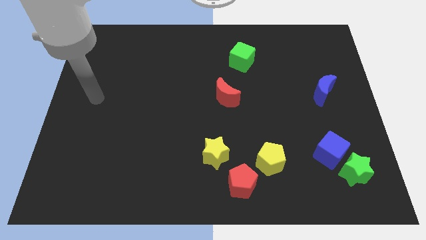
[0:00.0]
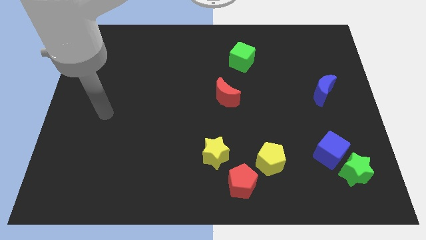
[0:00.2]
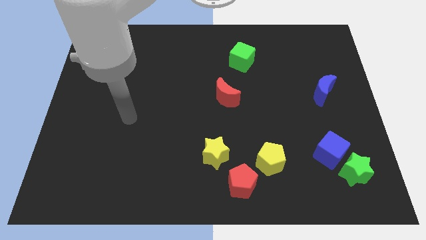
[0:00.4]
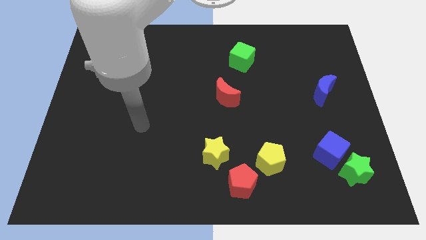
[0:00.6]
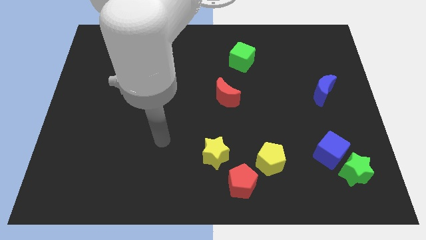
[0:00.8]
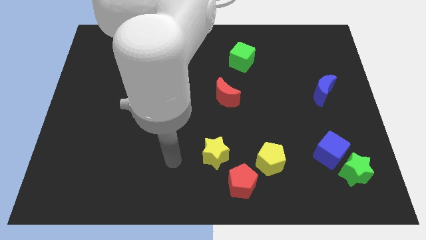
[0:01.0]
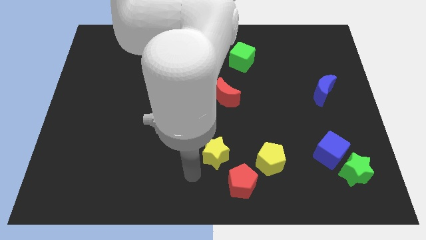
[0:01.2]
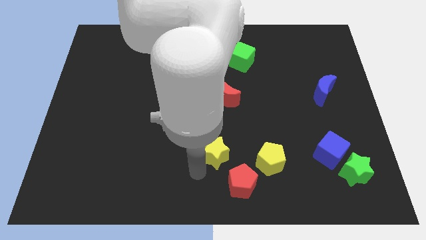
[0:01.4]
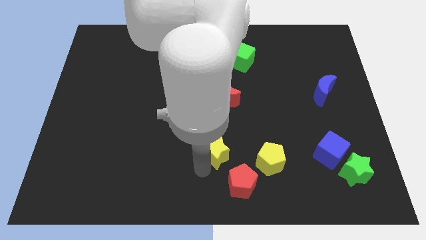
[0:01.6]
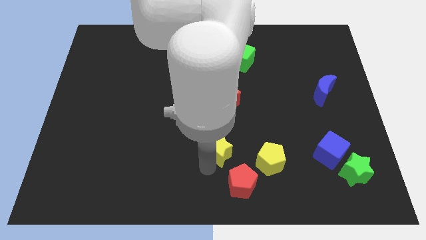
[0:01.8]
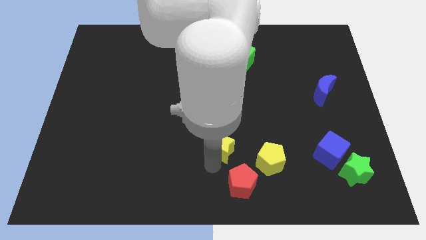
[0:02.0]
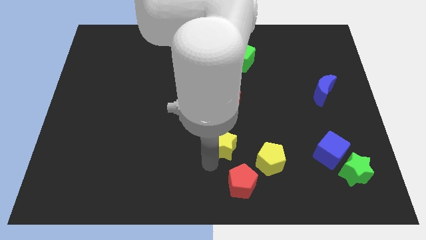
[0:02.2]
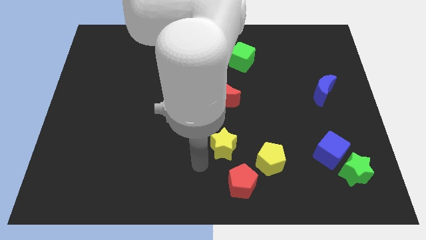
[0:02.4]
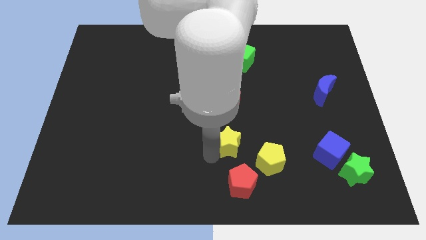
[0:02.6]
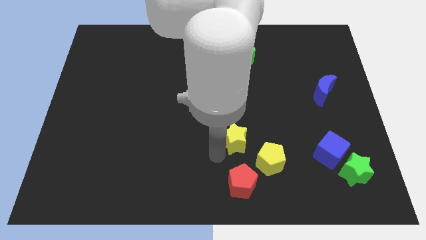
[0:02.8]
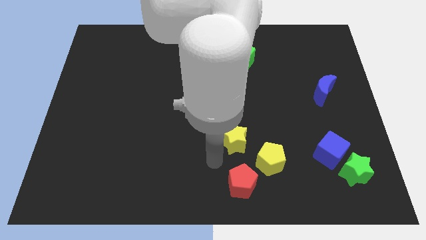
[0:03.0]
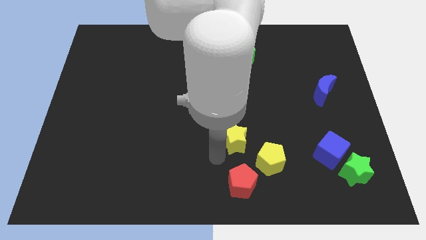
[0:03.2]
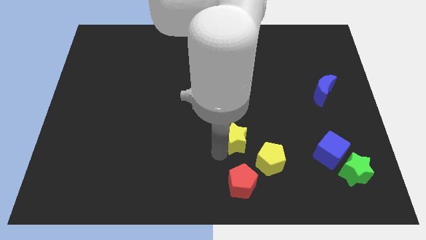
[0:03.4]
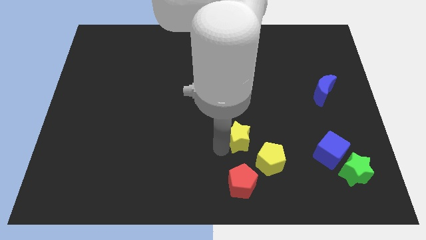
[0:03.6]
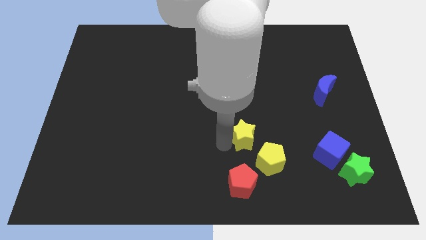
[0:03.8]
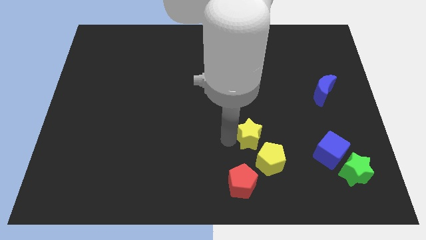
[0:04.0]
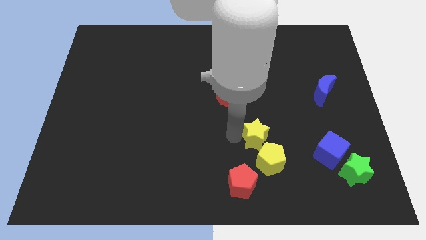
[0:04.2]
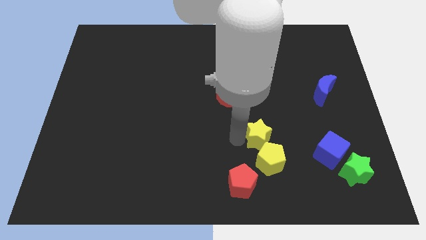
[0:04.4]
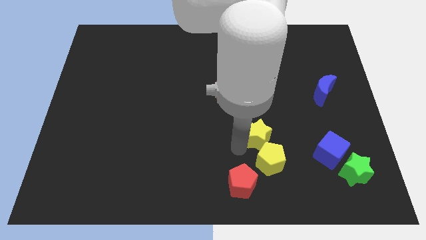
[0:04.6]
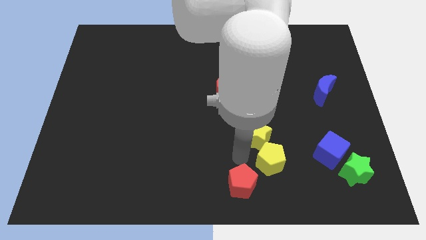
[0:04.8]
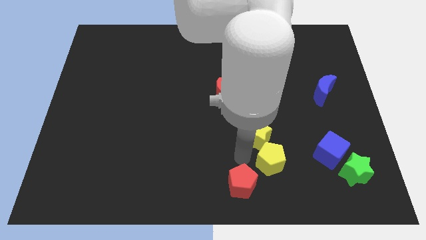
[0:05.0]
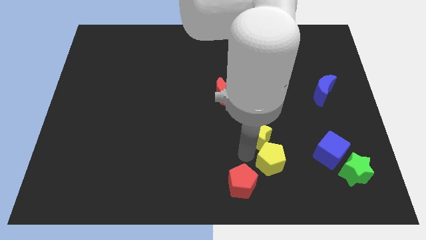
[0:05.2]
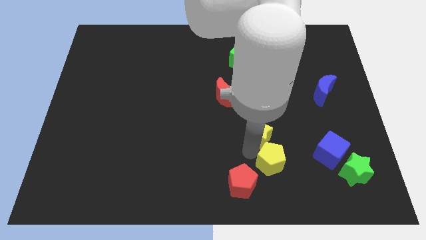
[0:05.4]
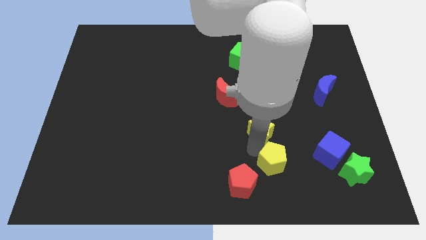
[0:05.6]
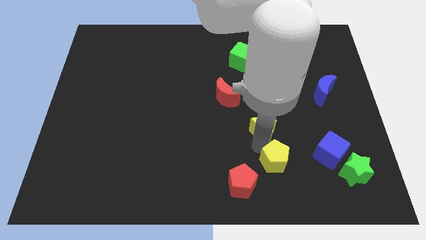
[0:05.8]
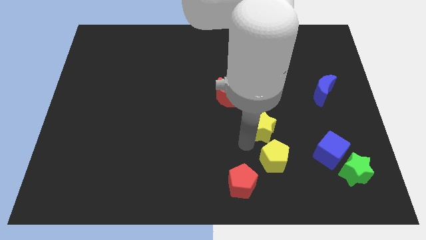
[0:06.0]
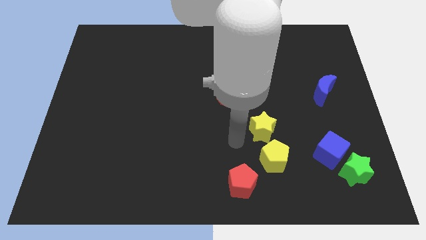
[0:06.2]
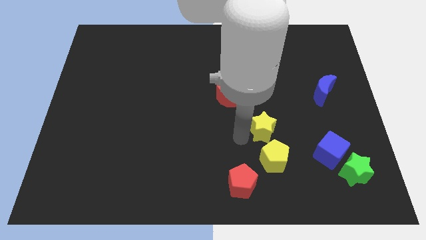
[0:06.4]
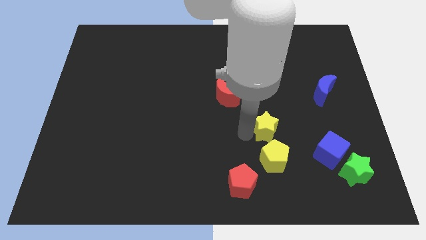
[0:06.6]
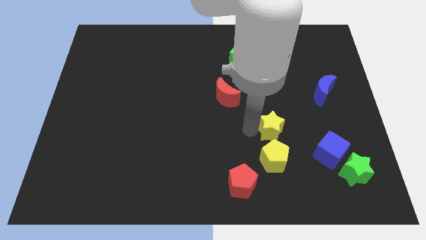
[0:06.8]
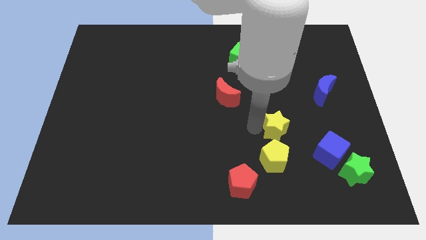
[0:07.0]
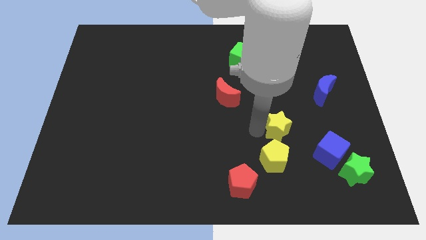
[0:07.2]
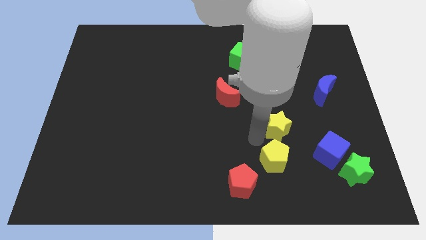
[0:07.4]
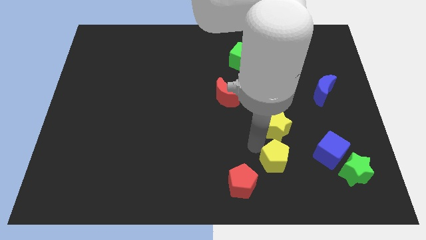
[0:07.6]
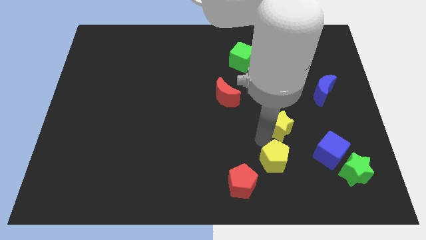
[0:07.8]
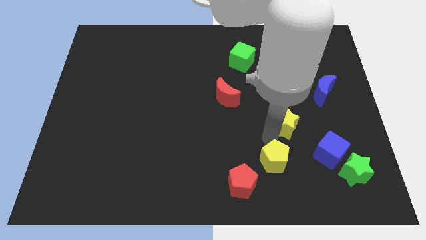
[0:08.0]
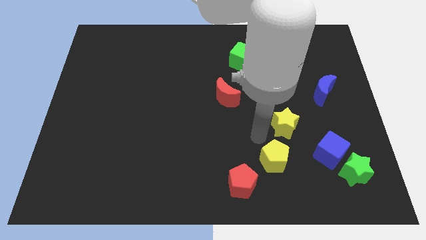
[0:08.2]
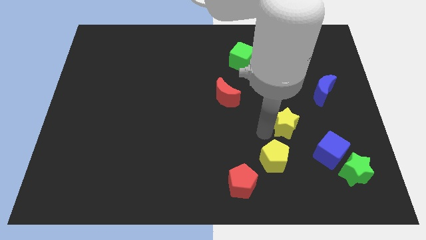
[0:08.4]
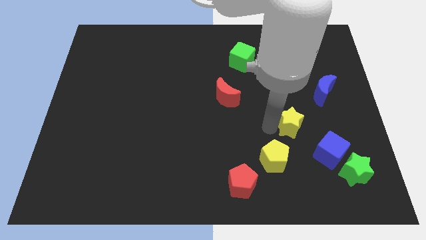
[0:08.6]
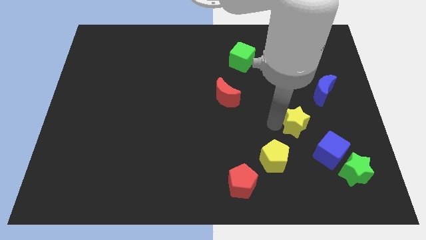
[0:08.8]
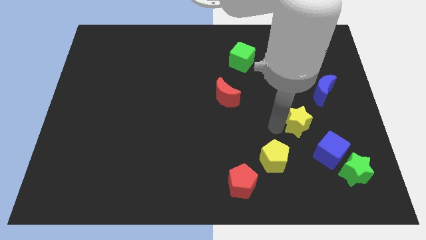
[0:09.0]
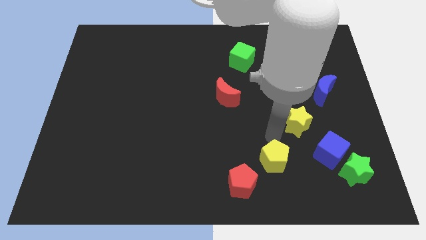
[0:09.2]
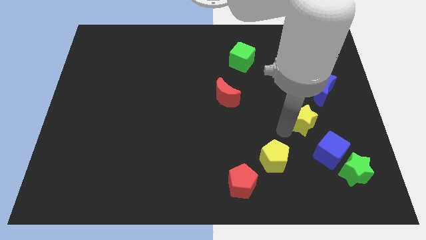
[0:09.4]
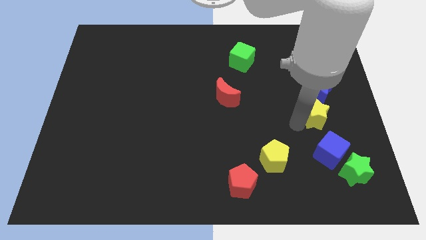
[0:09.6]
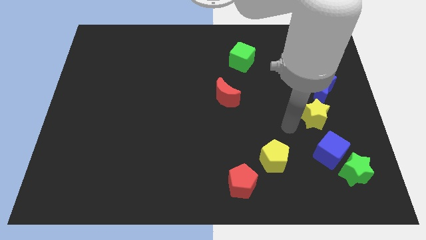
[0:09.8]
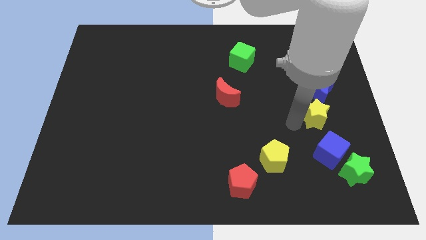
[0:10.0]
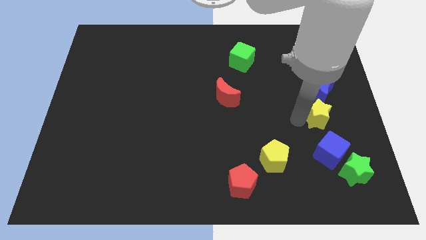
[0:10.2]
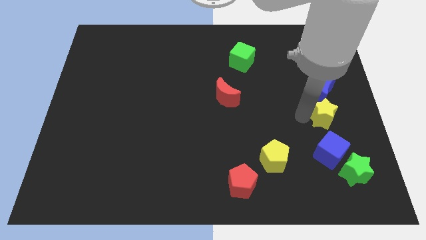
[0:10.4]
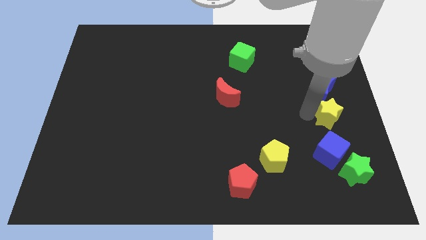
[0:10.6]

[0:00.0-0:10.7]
push the yellow star to the right side of the board
